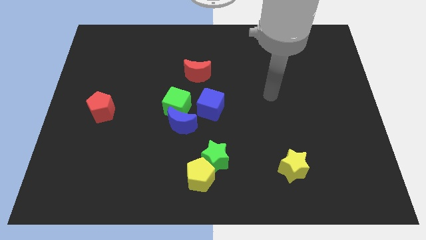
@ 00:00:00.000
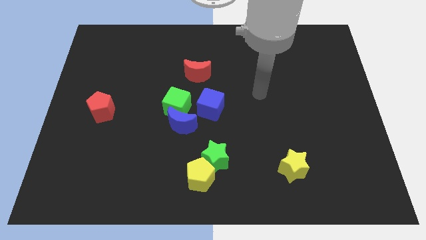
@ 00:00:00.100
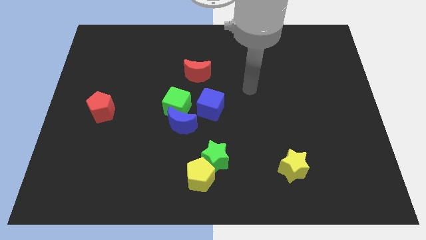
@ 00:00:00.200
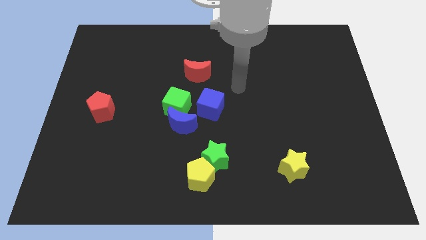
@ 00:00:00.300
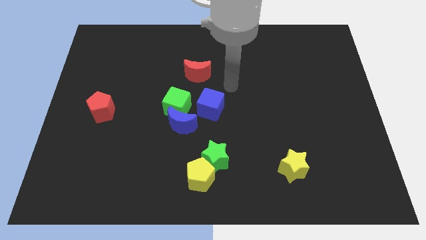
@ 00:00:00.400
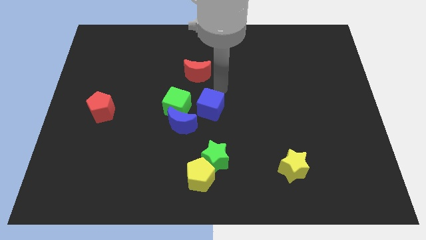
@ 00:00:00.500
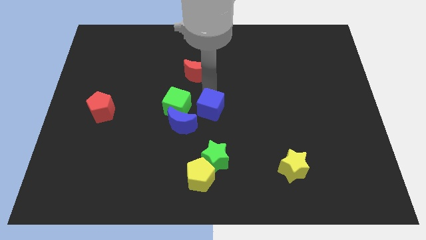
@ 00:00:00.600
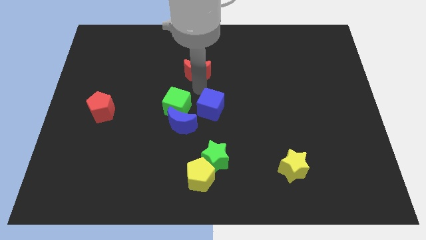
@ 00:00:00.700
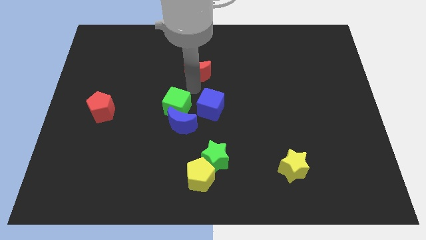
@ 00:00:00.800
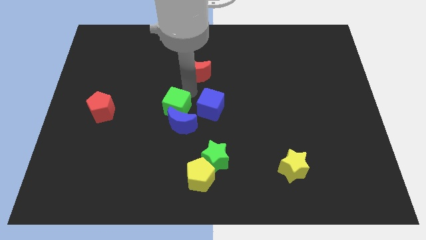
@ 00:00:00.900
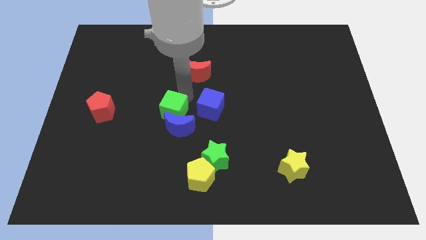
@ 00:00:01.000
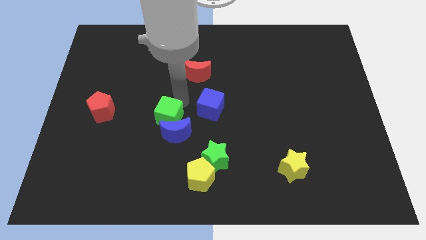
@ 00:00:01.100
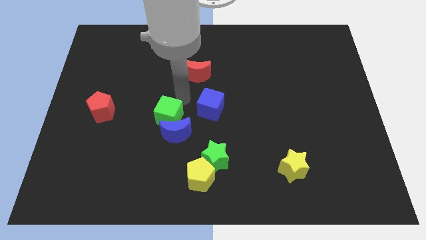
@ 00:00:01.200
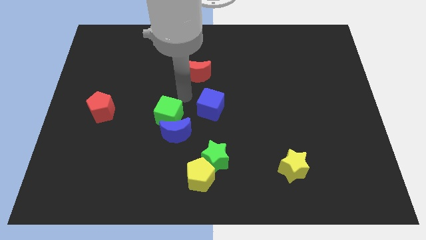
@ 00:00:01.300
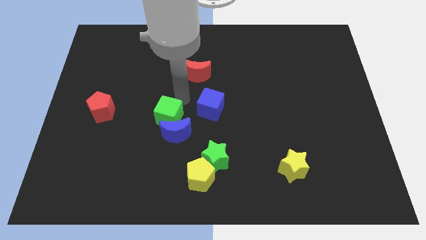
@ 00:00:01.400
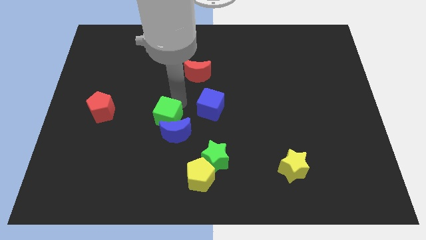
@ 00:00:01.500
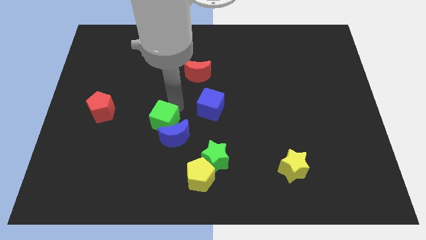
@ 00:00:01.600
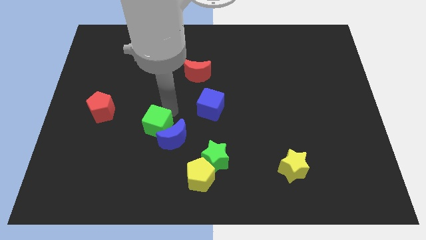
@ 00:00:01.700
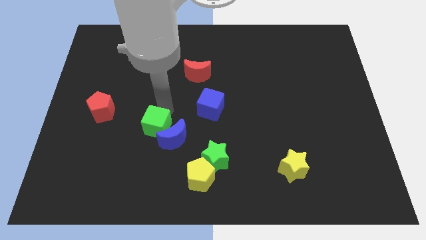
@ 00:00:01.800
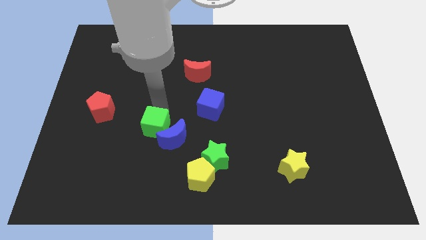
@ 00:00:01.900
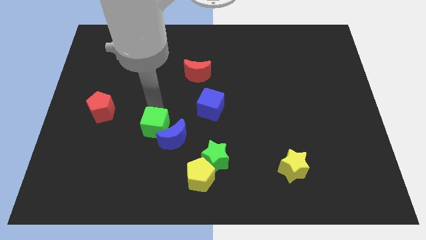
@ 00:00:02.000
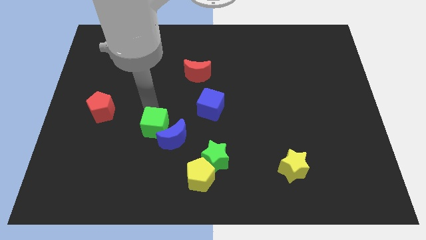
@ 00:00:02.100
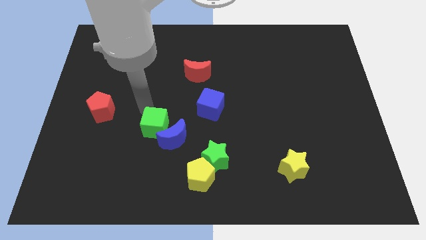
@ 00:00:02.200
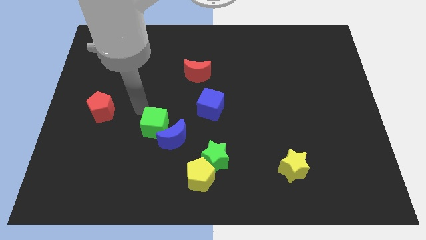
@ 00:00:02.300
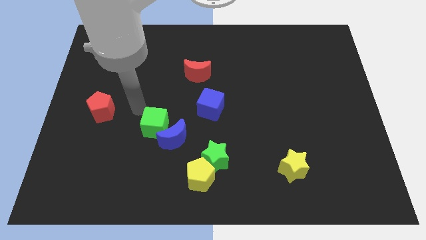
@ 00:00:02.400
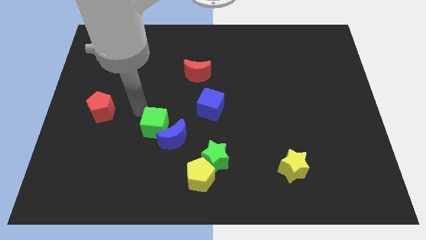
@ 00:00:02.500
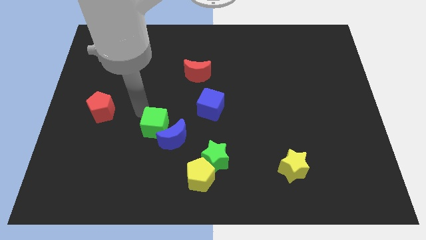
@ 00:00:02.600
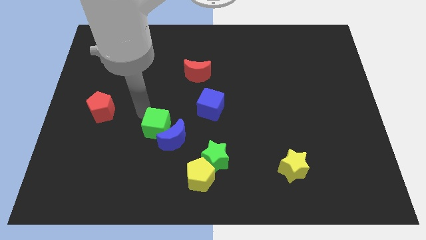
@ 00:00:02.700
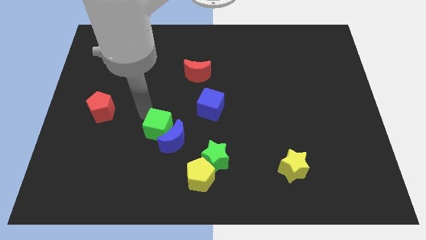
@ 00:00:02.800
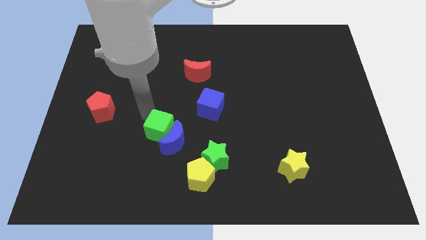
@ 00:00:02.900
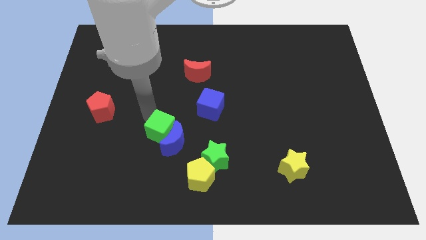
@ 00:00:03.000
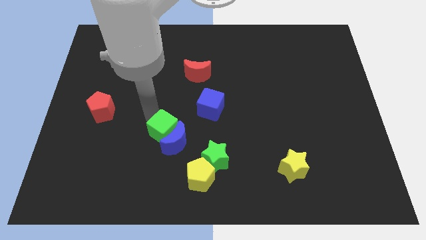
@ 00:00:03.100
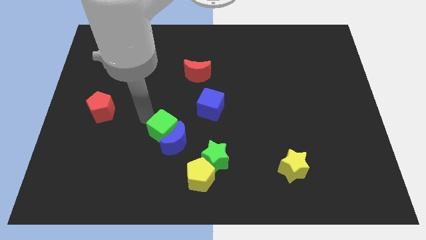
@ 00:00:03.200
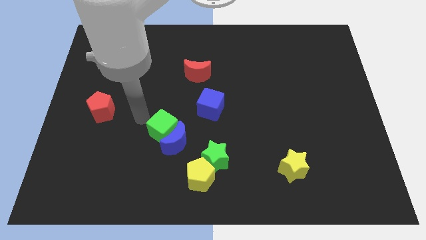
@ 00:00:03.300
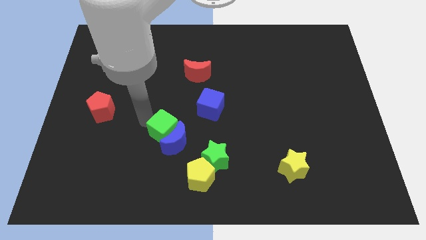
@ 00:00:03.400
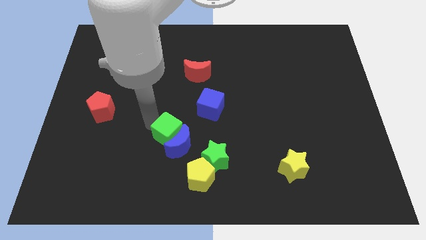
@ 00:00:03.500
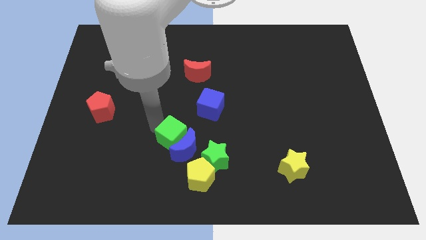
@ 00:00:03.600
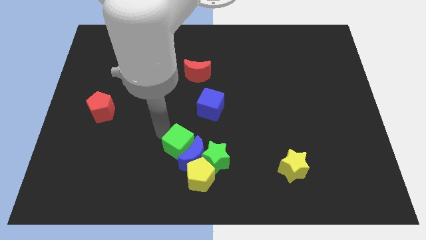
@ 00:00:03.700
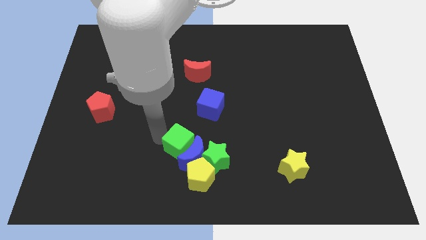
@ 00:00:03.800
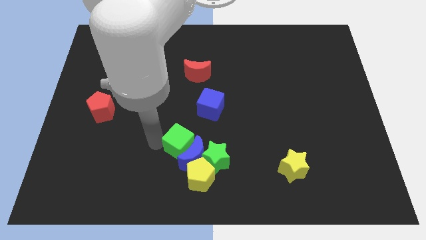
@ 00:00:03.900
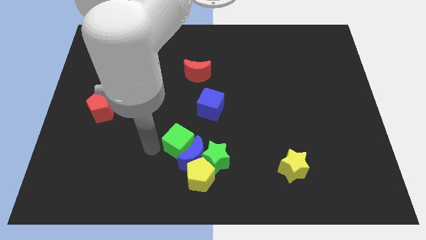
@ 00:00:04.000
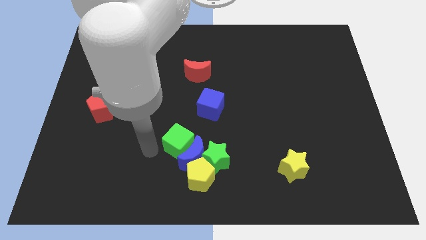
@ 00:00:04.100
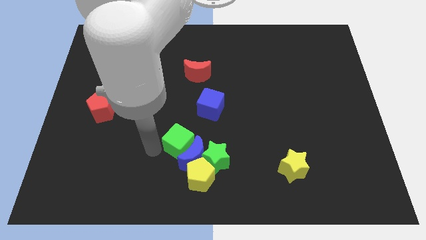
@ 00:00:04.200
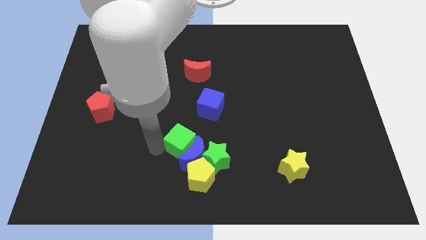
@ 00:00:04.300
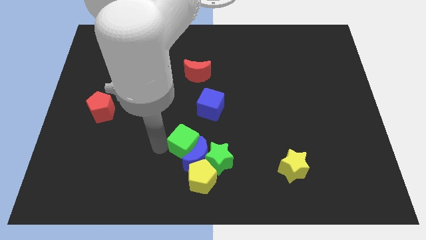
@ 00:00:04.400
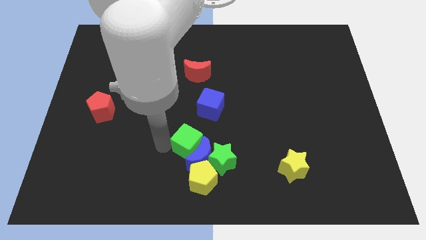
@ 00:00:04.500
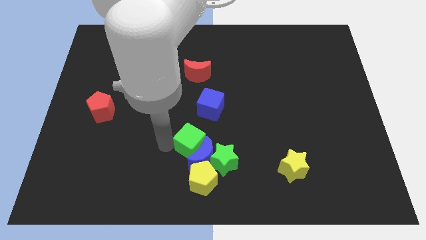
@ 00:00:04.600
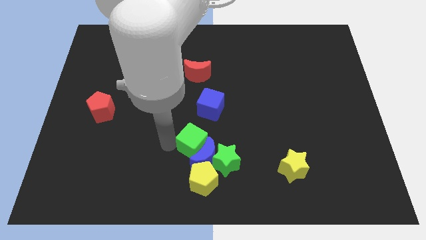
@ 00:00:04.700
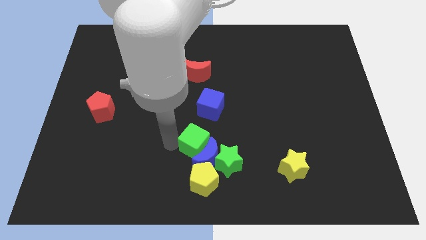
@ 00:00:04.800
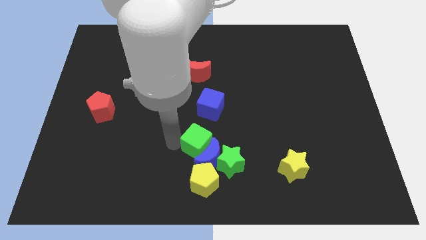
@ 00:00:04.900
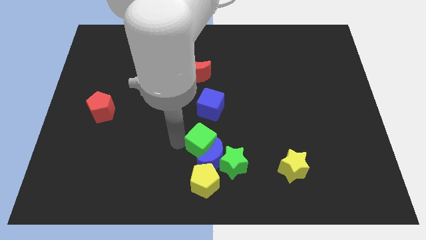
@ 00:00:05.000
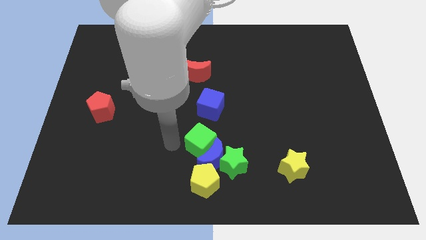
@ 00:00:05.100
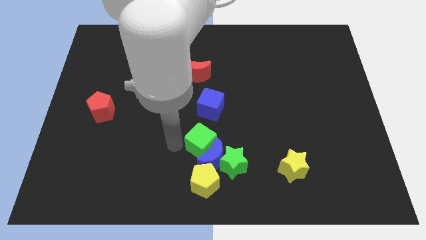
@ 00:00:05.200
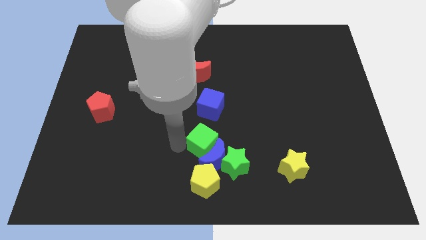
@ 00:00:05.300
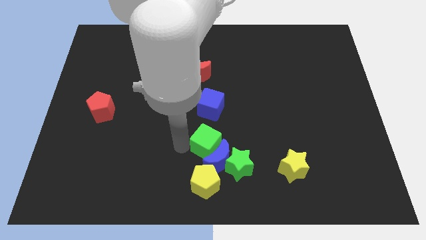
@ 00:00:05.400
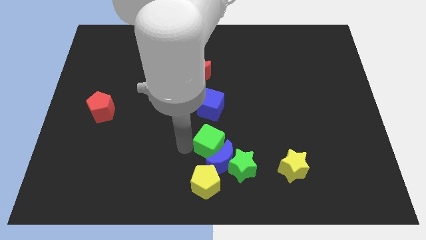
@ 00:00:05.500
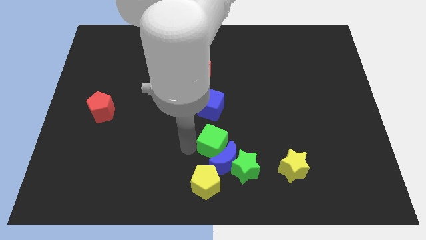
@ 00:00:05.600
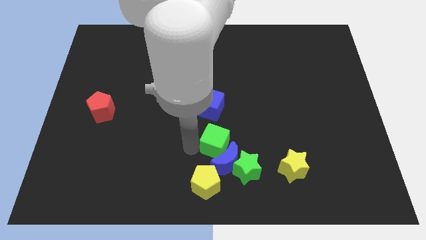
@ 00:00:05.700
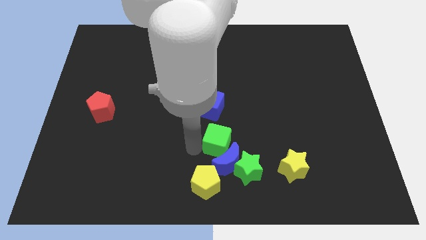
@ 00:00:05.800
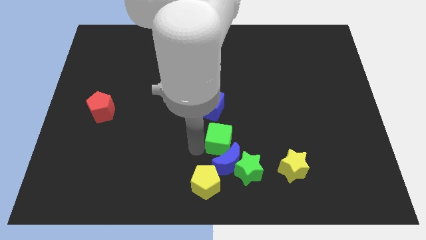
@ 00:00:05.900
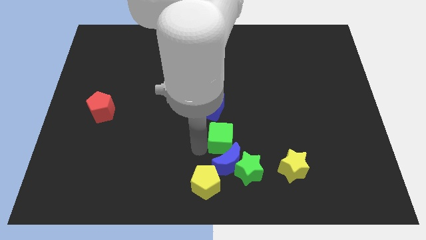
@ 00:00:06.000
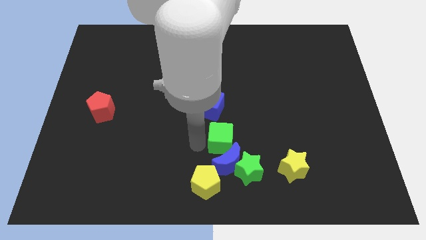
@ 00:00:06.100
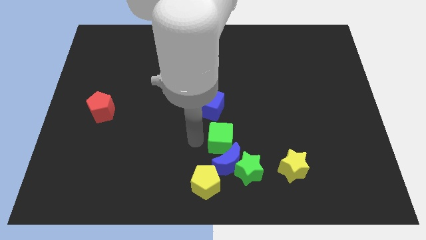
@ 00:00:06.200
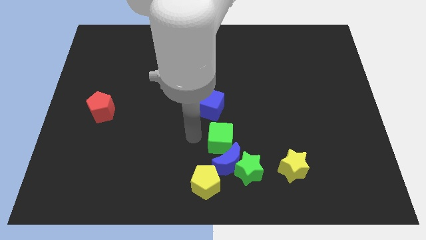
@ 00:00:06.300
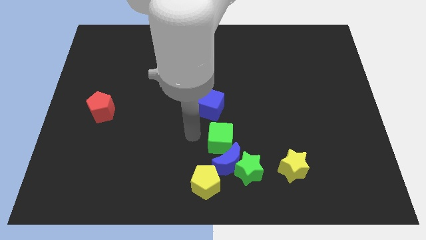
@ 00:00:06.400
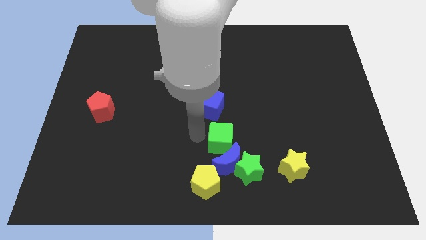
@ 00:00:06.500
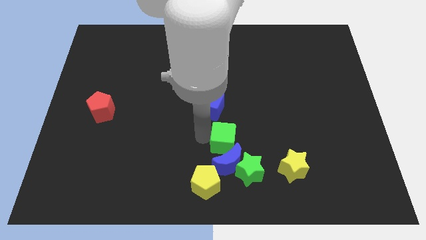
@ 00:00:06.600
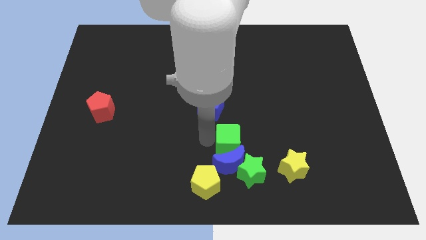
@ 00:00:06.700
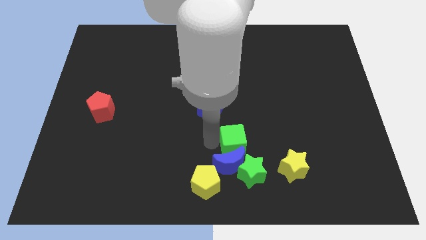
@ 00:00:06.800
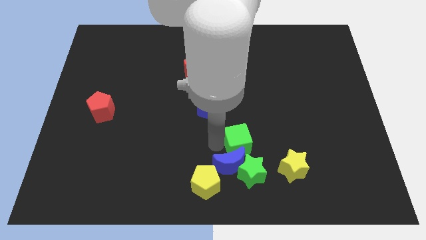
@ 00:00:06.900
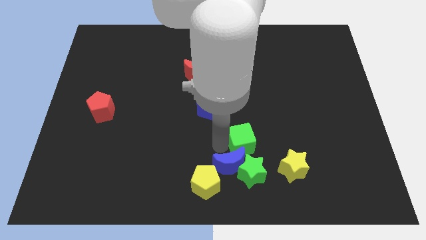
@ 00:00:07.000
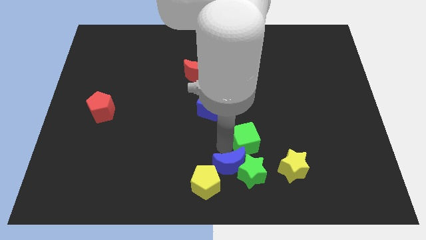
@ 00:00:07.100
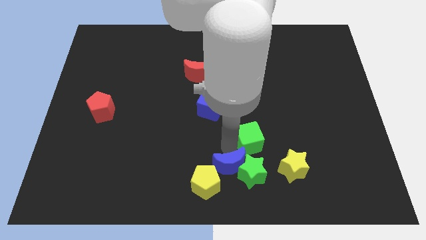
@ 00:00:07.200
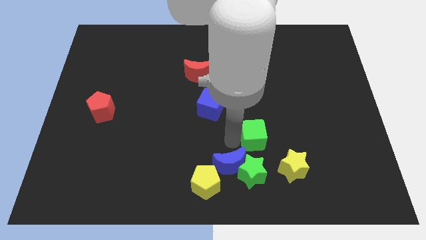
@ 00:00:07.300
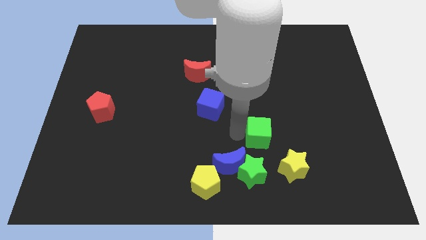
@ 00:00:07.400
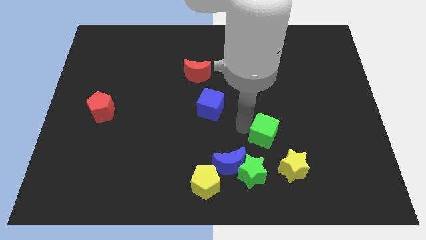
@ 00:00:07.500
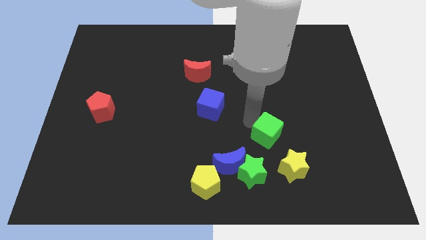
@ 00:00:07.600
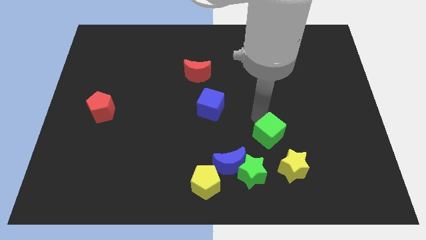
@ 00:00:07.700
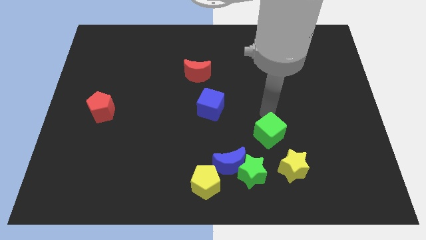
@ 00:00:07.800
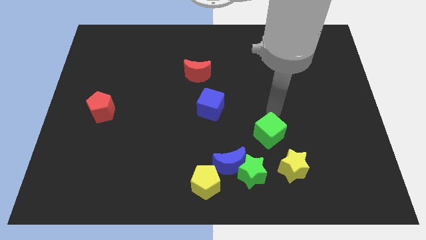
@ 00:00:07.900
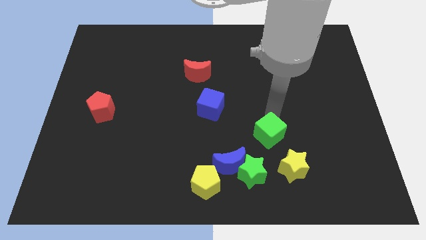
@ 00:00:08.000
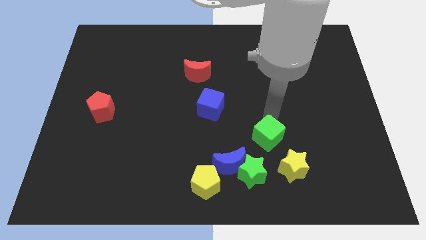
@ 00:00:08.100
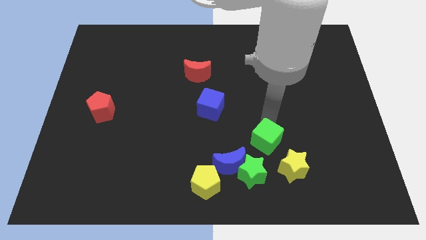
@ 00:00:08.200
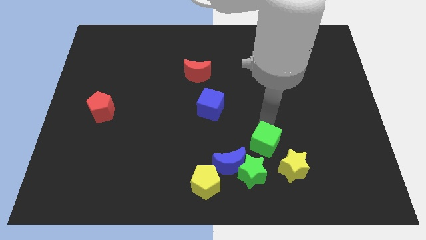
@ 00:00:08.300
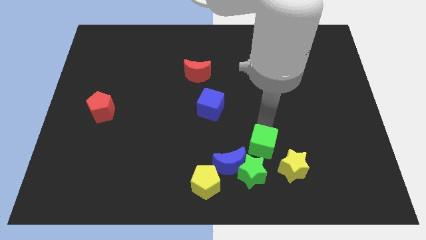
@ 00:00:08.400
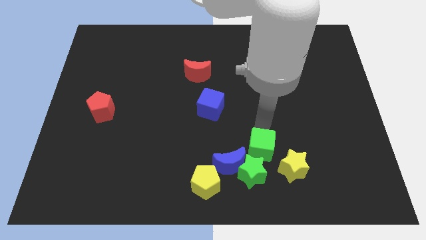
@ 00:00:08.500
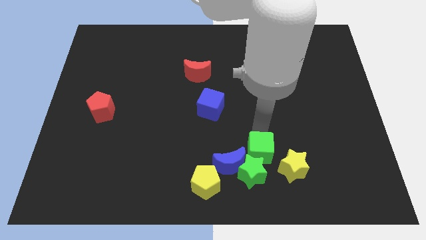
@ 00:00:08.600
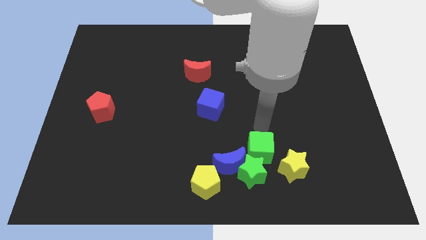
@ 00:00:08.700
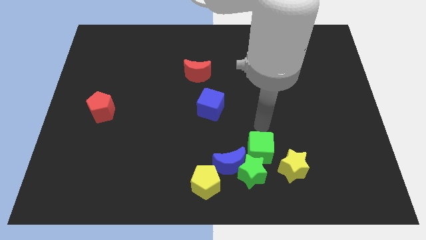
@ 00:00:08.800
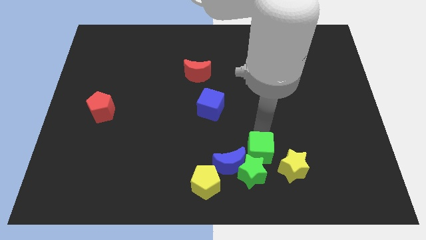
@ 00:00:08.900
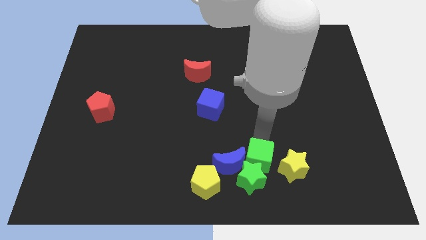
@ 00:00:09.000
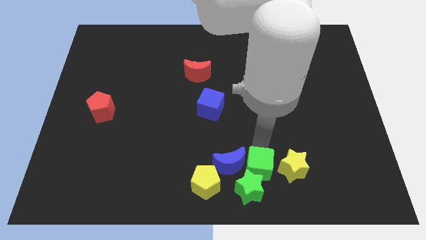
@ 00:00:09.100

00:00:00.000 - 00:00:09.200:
slide the green cube just right of the yellow pentagon
